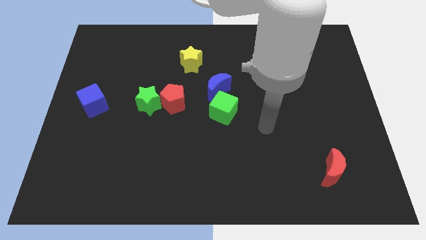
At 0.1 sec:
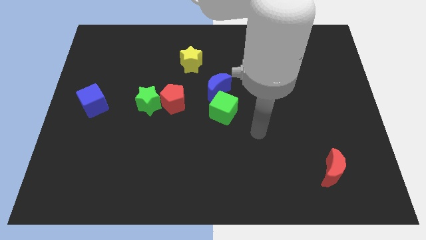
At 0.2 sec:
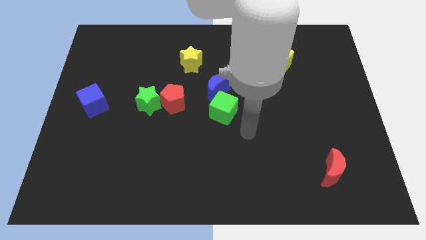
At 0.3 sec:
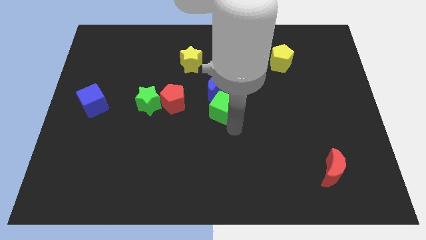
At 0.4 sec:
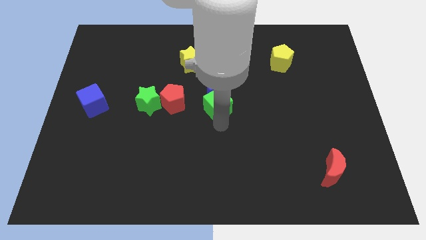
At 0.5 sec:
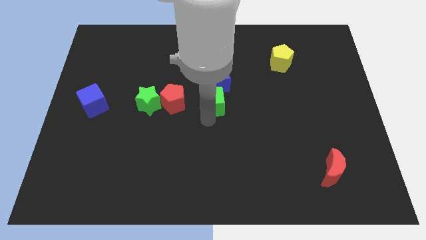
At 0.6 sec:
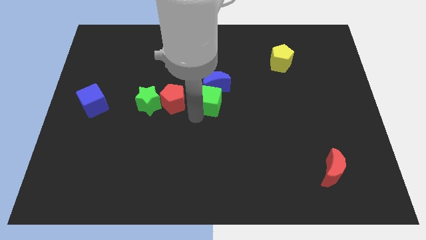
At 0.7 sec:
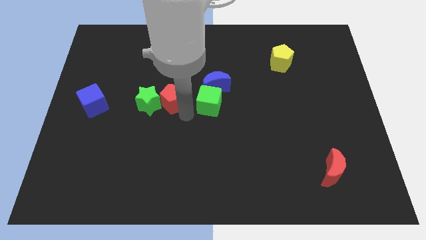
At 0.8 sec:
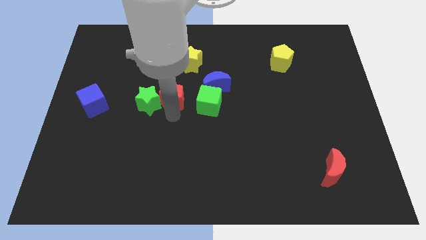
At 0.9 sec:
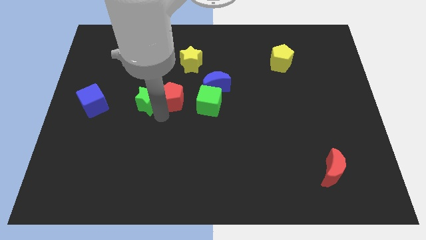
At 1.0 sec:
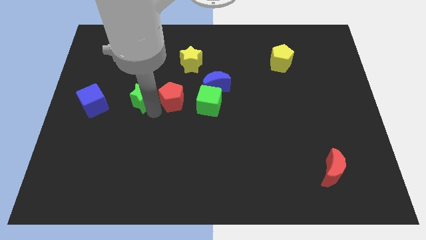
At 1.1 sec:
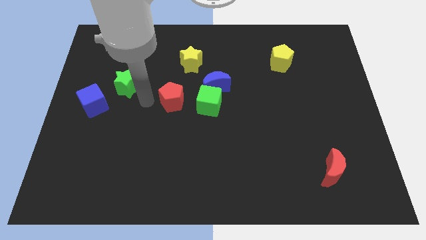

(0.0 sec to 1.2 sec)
pull the red pentagon apart from the green star

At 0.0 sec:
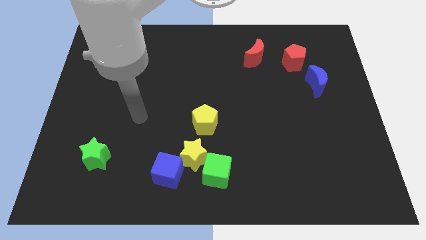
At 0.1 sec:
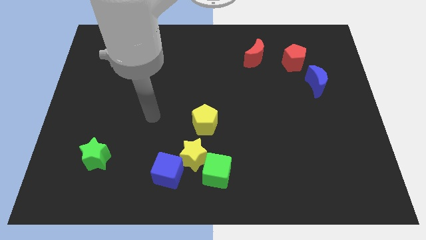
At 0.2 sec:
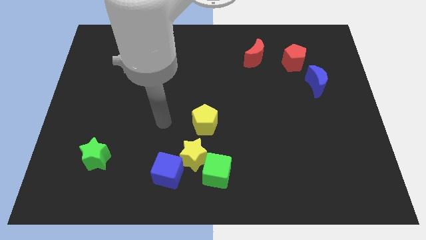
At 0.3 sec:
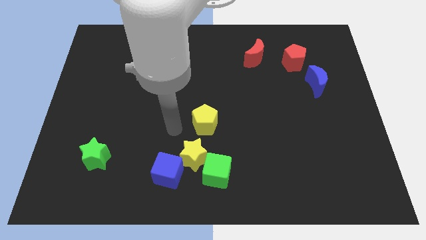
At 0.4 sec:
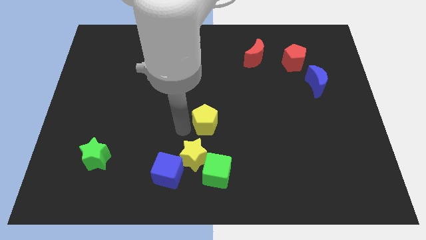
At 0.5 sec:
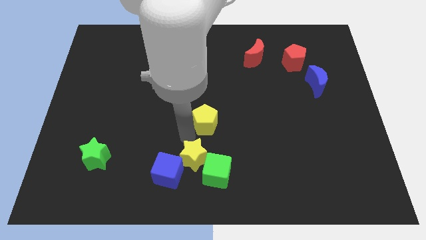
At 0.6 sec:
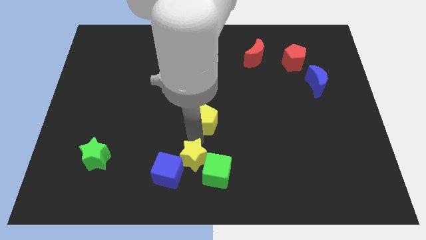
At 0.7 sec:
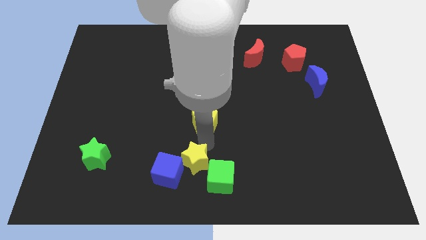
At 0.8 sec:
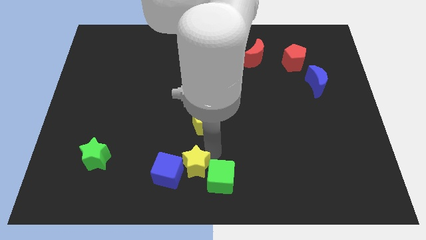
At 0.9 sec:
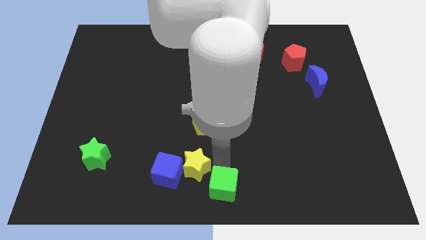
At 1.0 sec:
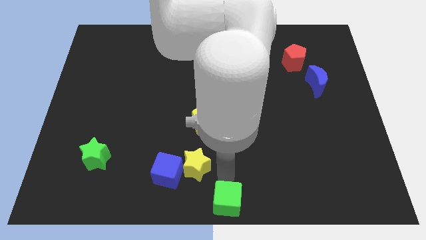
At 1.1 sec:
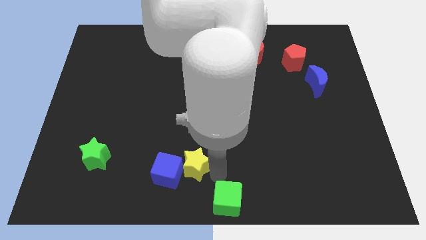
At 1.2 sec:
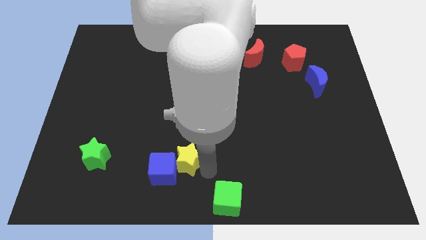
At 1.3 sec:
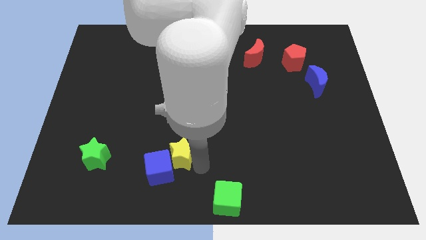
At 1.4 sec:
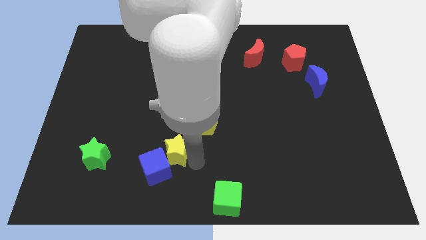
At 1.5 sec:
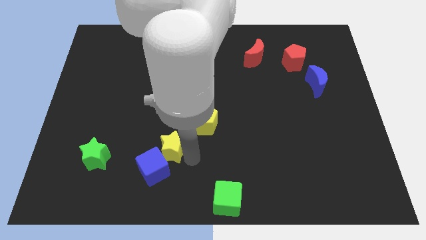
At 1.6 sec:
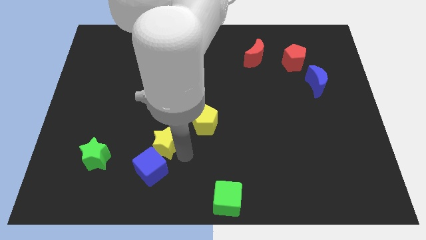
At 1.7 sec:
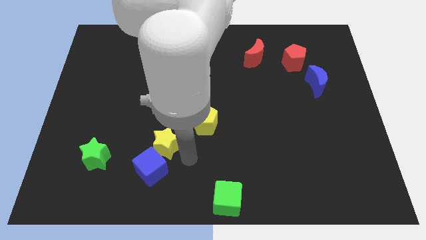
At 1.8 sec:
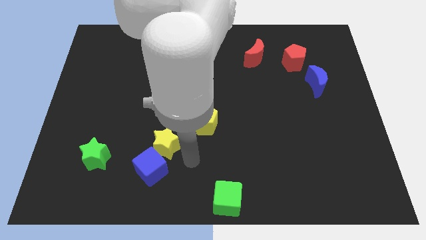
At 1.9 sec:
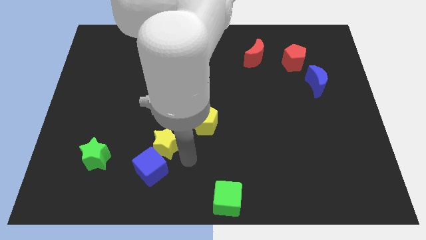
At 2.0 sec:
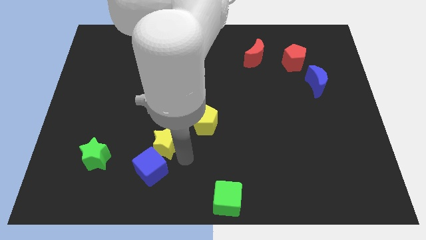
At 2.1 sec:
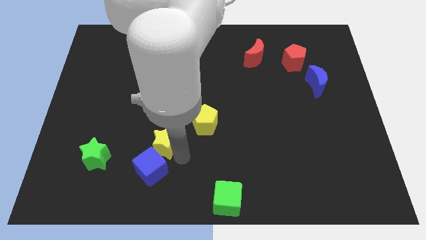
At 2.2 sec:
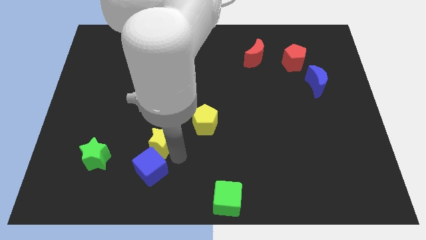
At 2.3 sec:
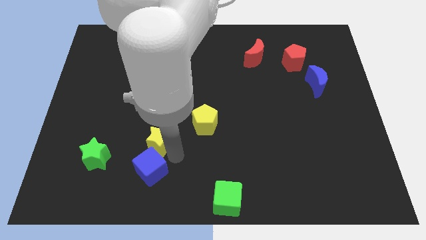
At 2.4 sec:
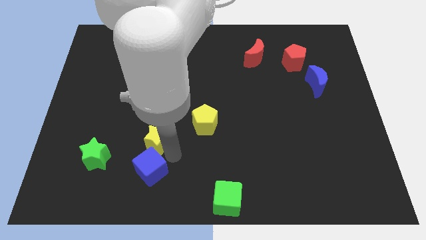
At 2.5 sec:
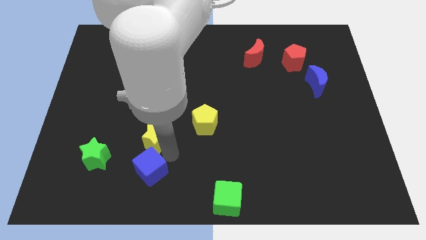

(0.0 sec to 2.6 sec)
separate the yellow star from the group of blocks

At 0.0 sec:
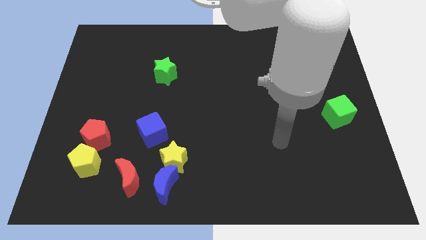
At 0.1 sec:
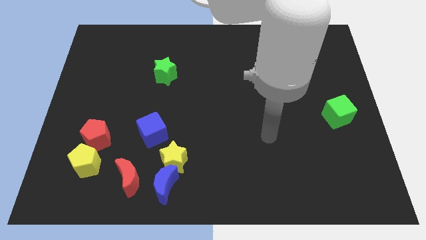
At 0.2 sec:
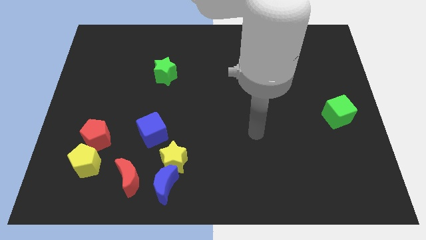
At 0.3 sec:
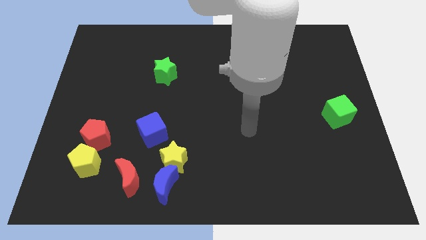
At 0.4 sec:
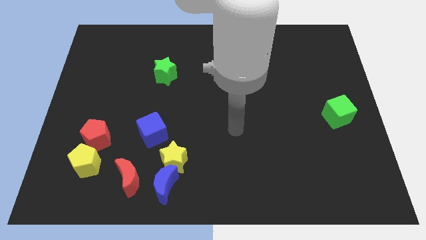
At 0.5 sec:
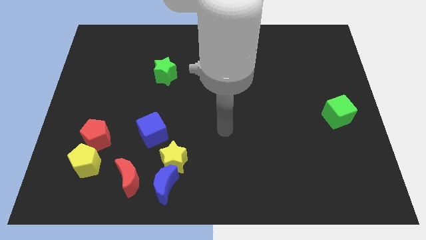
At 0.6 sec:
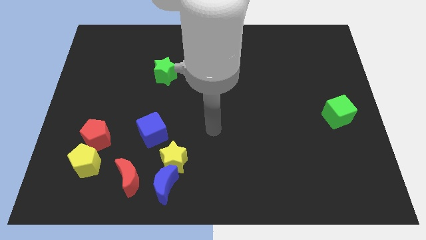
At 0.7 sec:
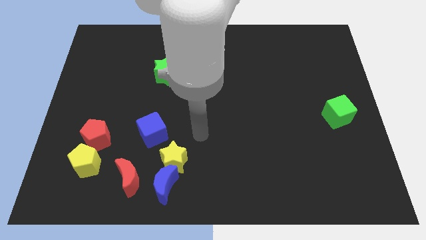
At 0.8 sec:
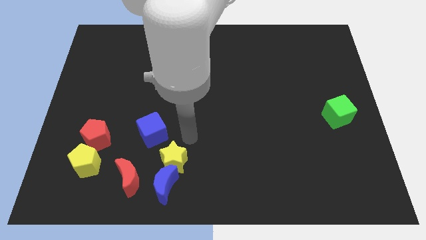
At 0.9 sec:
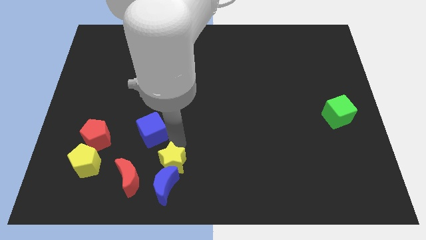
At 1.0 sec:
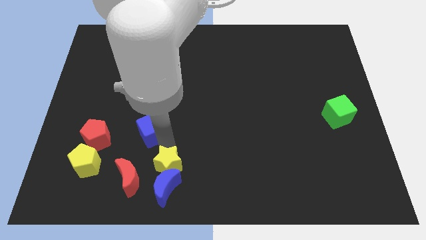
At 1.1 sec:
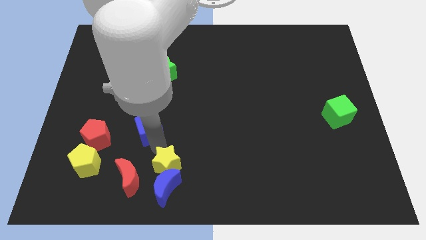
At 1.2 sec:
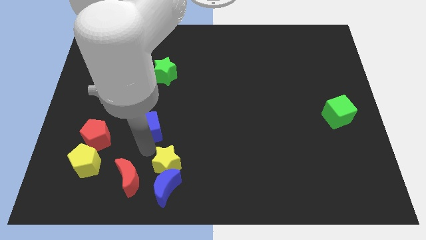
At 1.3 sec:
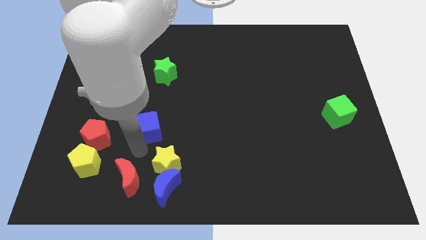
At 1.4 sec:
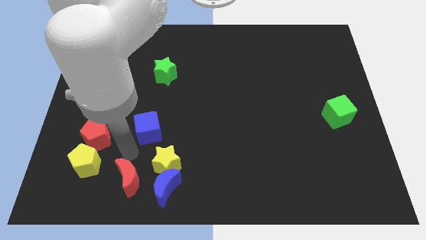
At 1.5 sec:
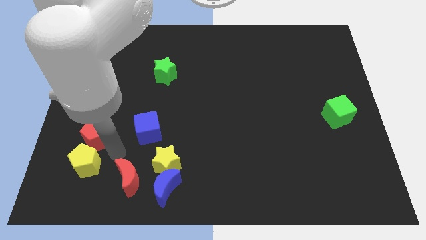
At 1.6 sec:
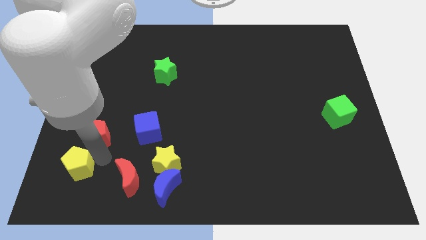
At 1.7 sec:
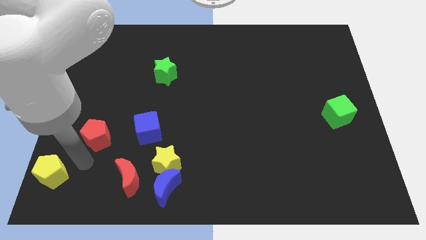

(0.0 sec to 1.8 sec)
move the red pentagon away from the yellow pentagon

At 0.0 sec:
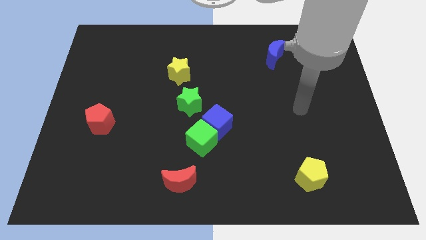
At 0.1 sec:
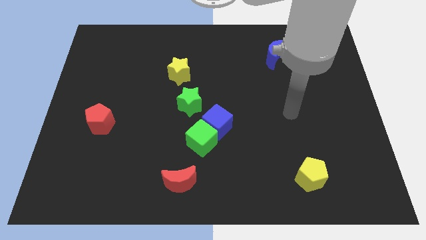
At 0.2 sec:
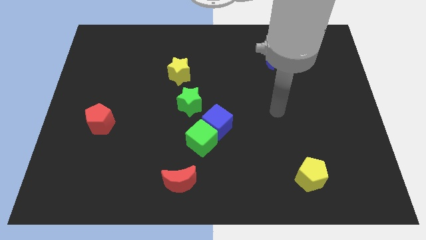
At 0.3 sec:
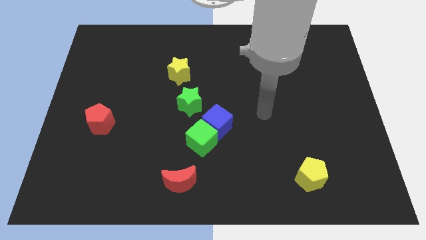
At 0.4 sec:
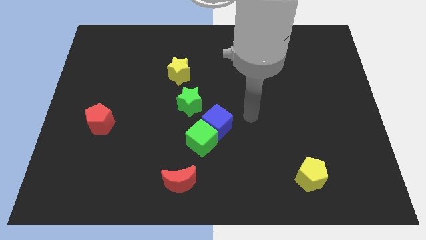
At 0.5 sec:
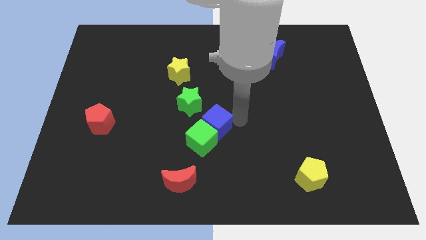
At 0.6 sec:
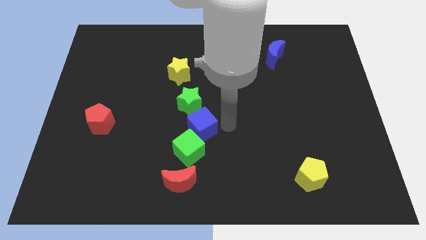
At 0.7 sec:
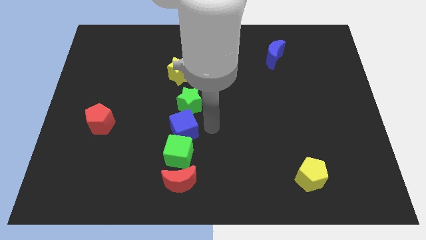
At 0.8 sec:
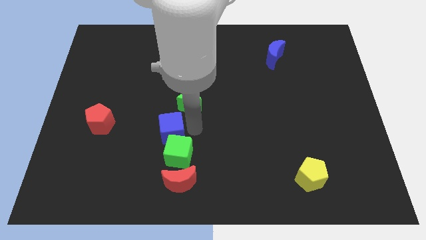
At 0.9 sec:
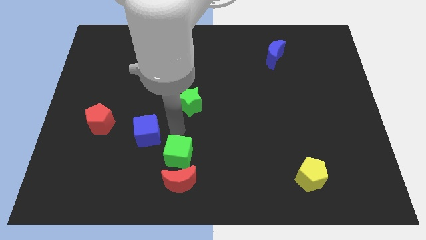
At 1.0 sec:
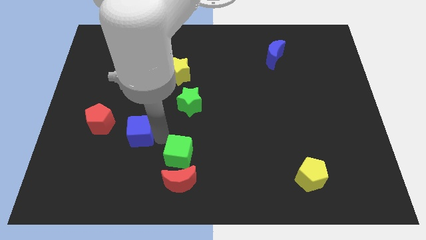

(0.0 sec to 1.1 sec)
separate the green cube from the blue cube

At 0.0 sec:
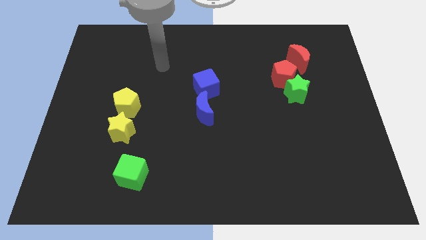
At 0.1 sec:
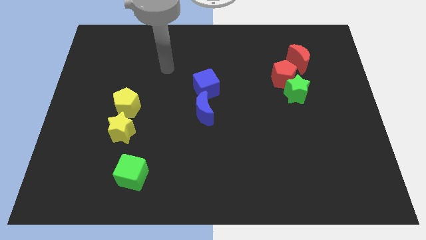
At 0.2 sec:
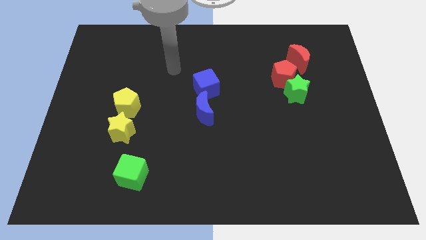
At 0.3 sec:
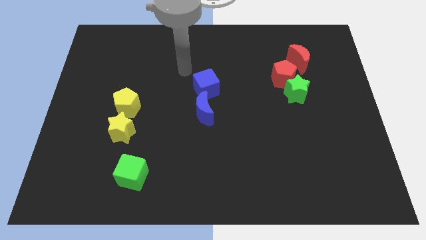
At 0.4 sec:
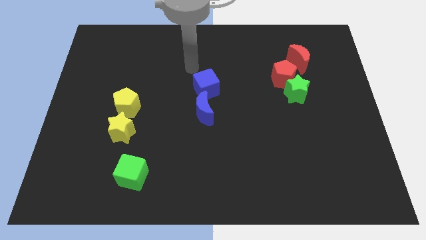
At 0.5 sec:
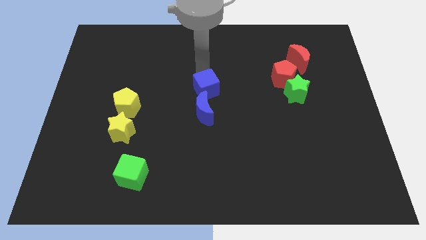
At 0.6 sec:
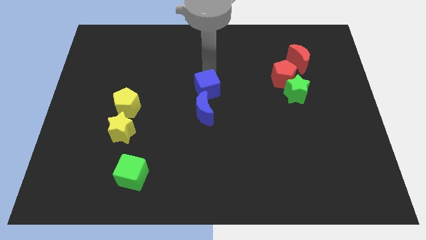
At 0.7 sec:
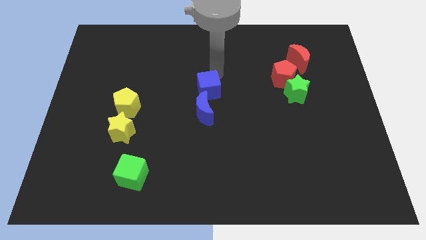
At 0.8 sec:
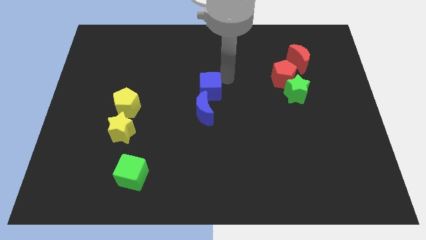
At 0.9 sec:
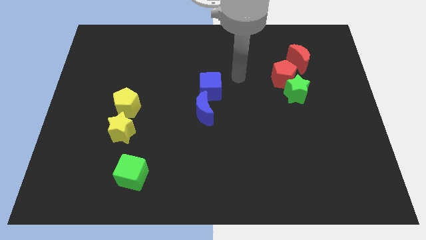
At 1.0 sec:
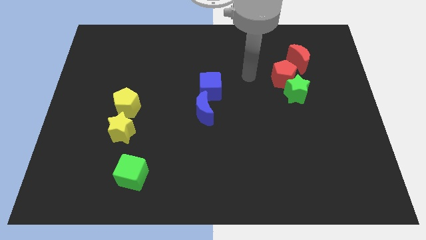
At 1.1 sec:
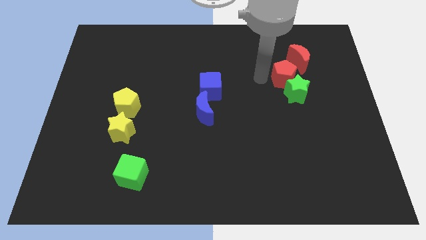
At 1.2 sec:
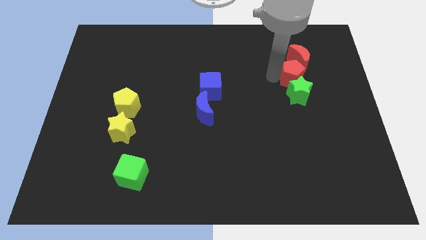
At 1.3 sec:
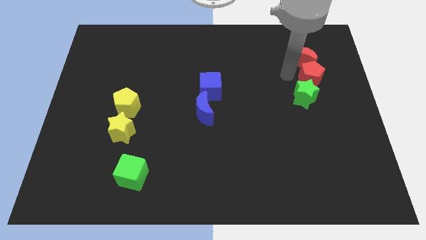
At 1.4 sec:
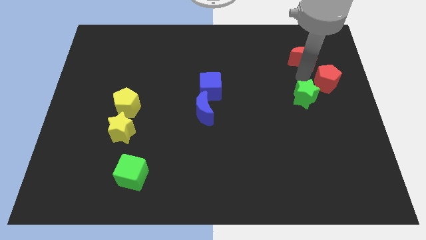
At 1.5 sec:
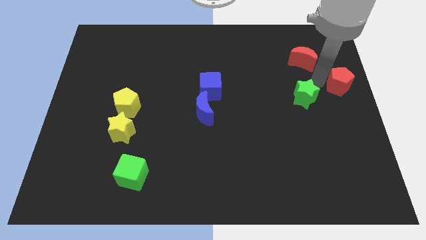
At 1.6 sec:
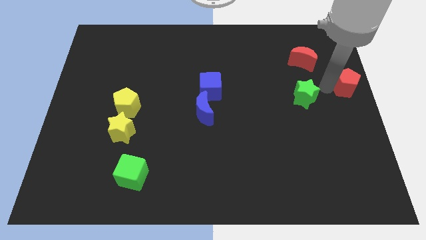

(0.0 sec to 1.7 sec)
pull the green star apart from the red pentagon

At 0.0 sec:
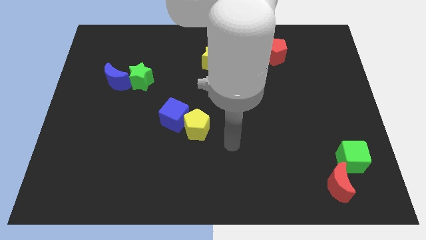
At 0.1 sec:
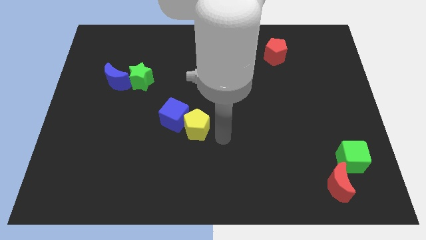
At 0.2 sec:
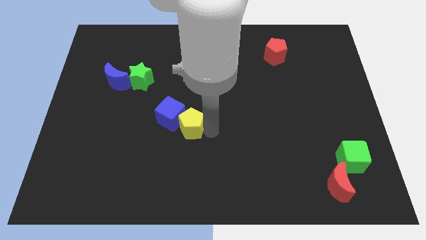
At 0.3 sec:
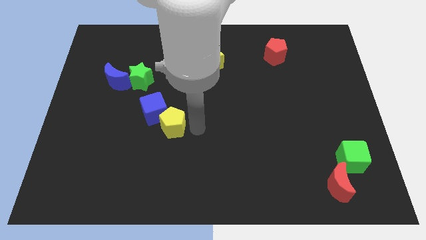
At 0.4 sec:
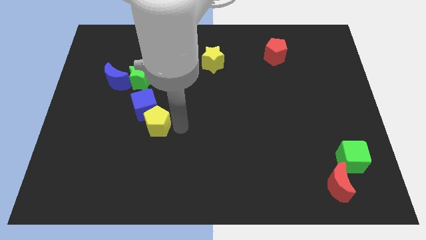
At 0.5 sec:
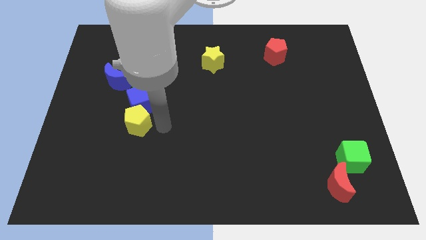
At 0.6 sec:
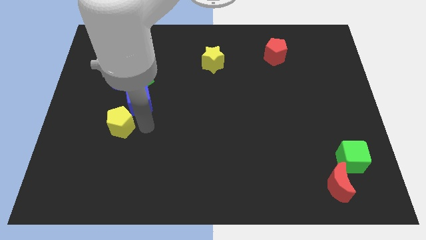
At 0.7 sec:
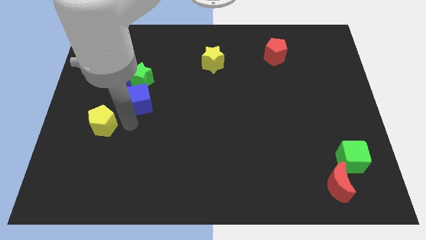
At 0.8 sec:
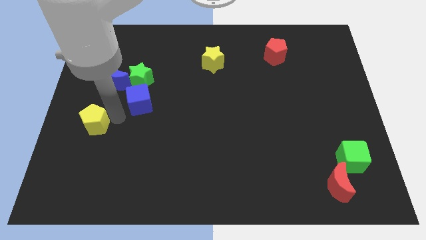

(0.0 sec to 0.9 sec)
move the blue cube away from the yellow pentagon
